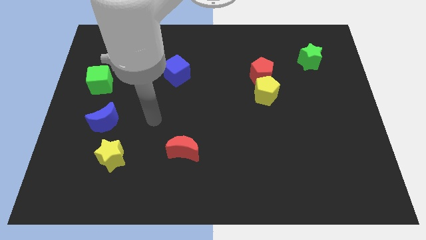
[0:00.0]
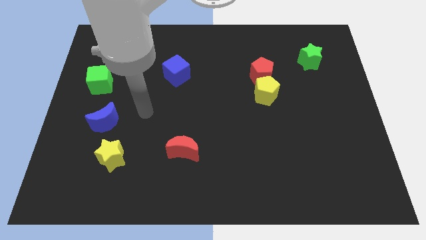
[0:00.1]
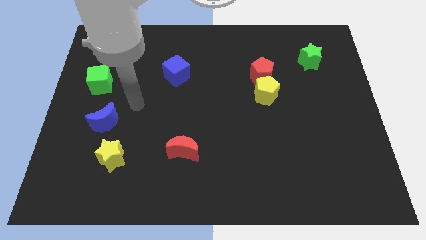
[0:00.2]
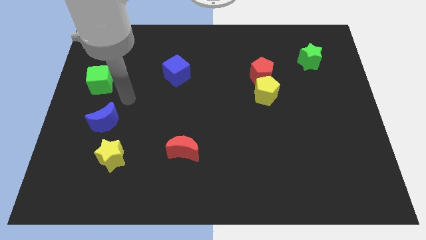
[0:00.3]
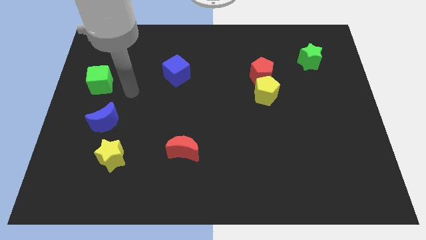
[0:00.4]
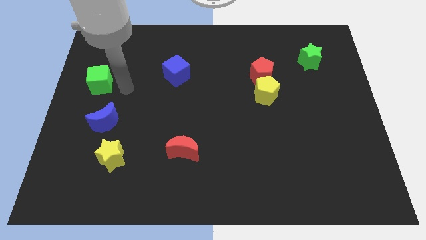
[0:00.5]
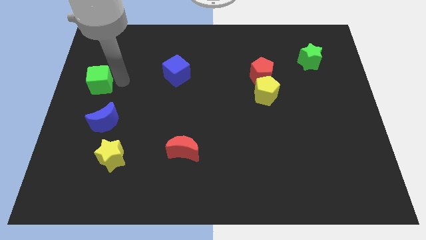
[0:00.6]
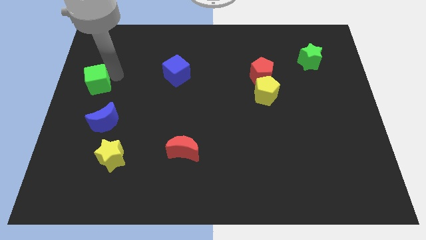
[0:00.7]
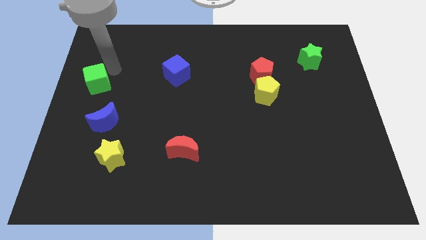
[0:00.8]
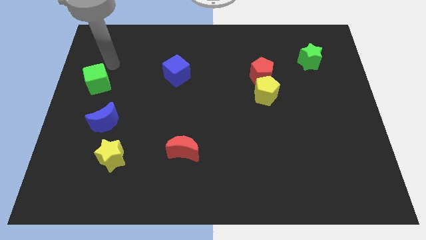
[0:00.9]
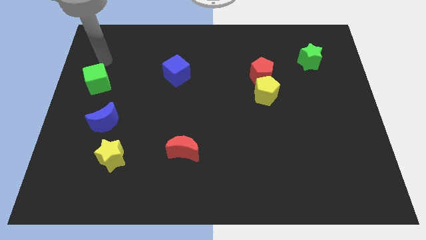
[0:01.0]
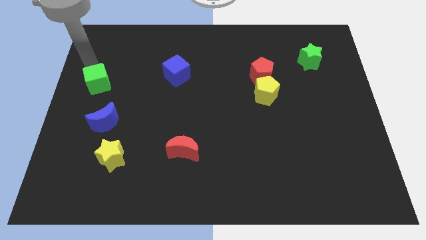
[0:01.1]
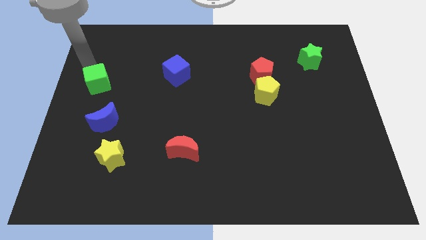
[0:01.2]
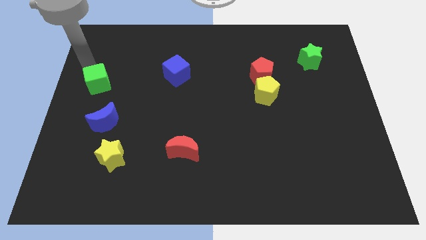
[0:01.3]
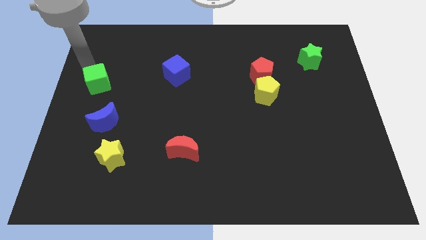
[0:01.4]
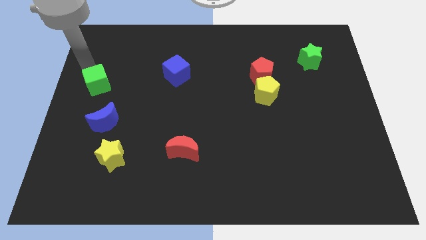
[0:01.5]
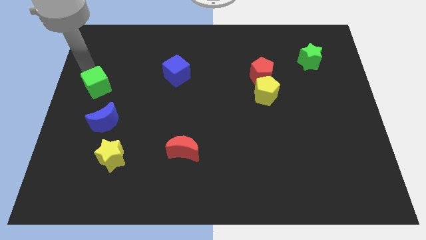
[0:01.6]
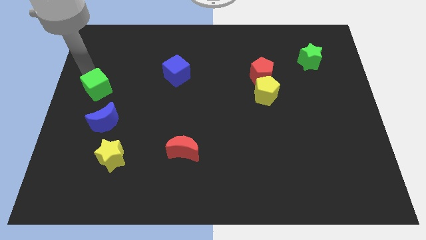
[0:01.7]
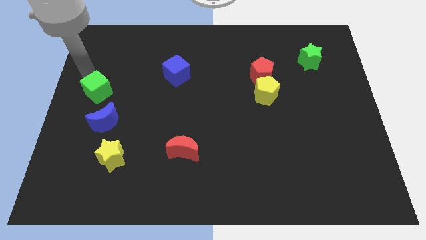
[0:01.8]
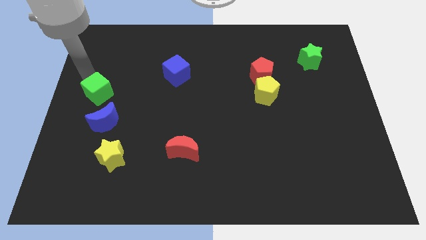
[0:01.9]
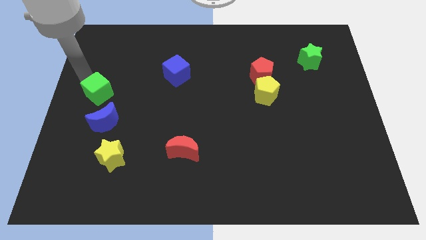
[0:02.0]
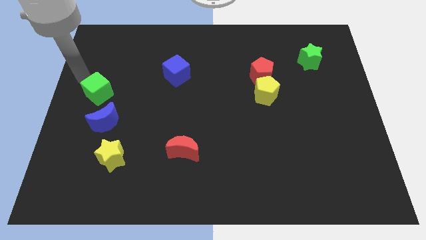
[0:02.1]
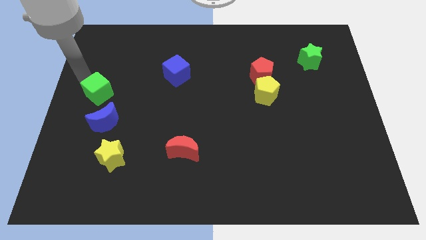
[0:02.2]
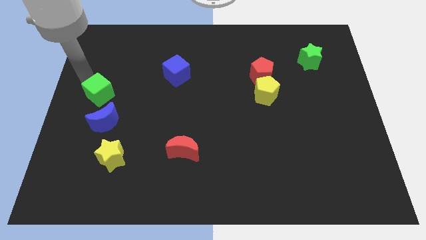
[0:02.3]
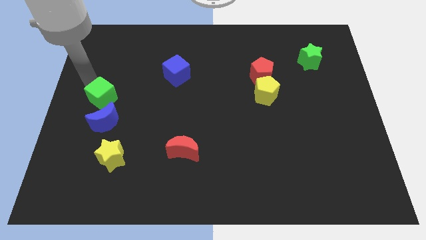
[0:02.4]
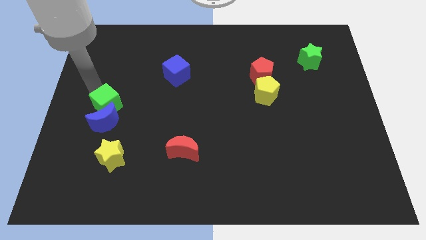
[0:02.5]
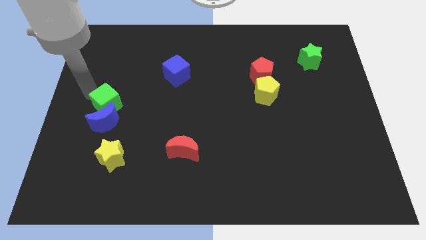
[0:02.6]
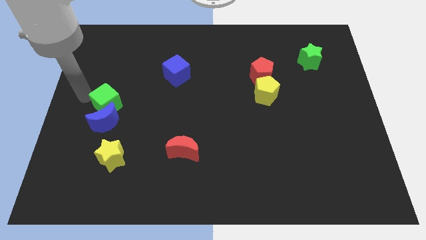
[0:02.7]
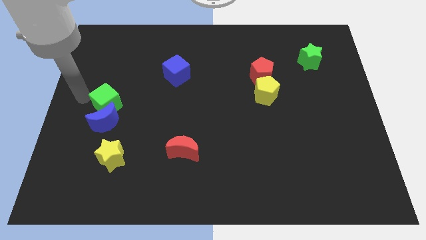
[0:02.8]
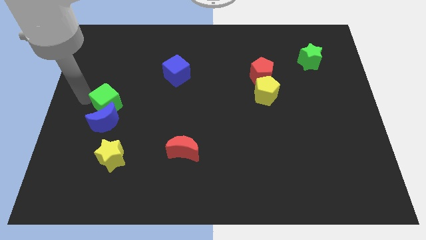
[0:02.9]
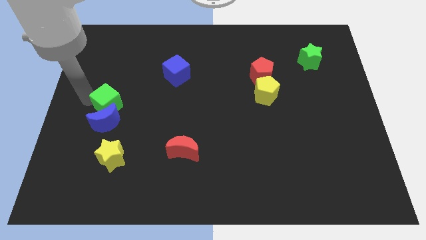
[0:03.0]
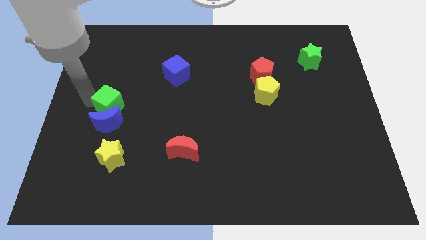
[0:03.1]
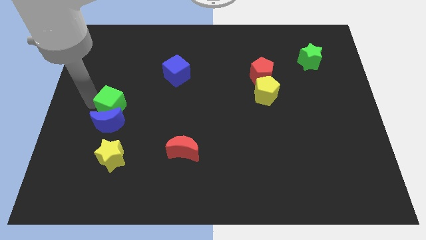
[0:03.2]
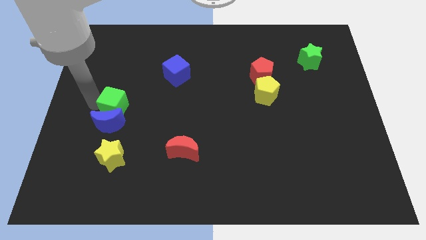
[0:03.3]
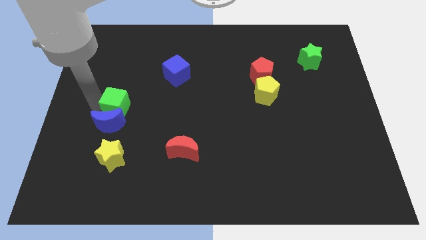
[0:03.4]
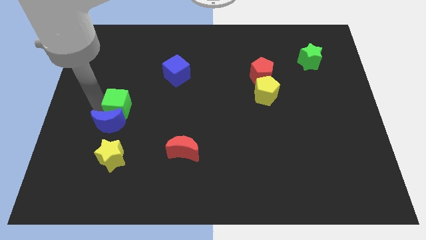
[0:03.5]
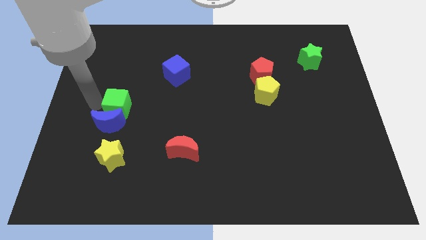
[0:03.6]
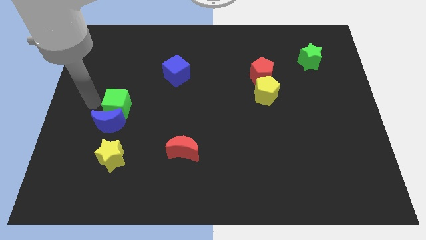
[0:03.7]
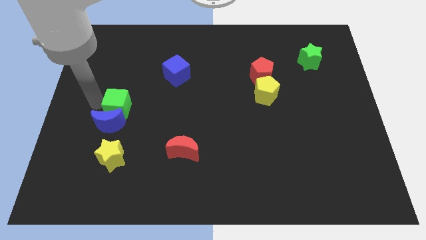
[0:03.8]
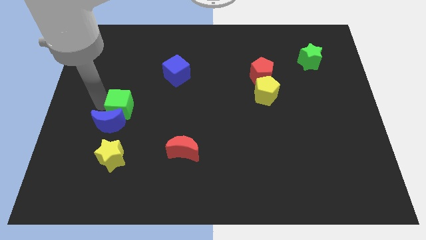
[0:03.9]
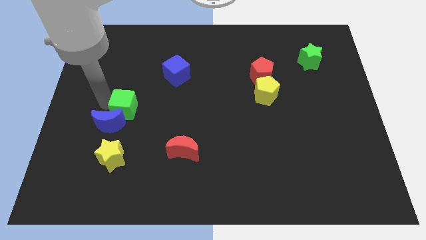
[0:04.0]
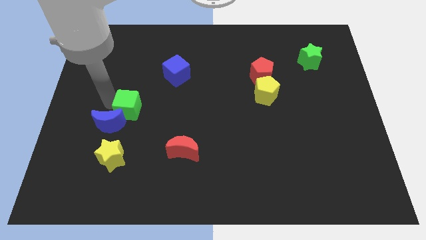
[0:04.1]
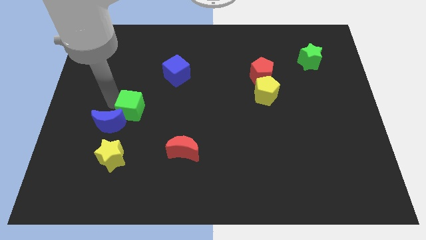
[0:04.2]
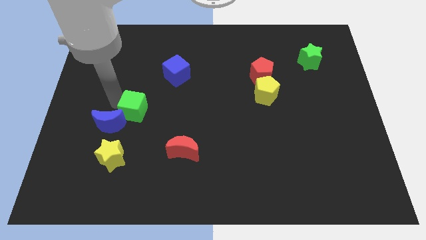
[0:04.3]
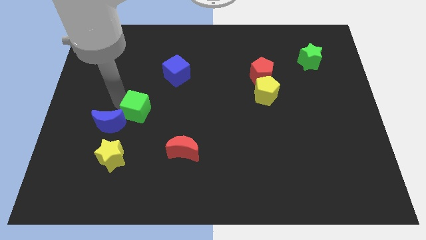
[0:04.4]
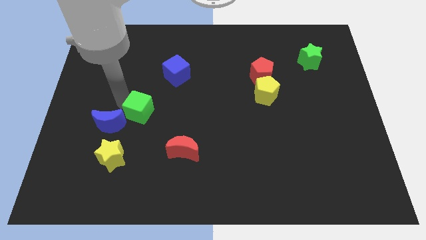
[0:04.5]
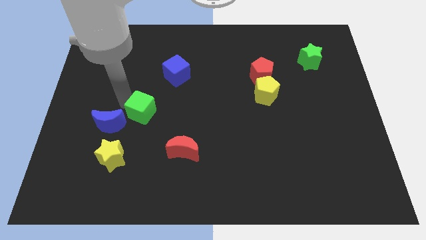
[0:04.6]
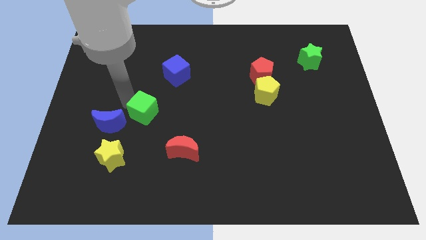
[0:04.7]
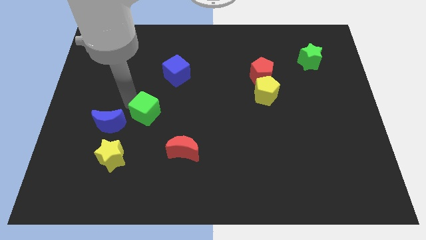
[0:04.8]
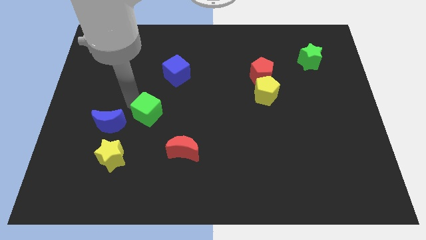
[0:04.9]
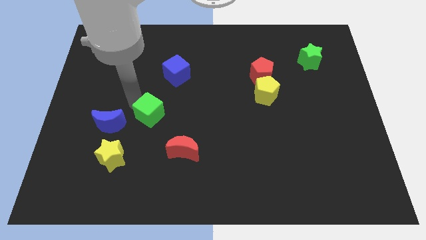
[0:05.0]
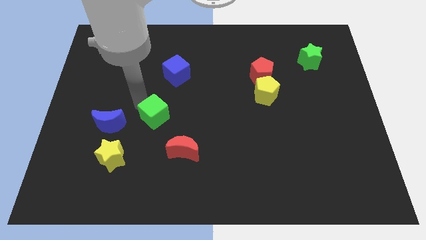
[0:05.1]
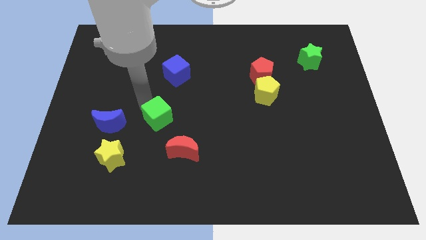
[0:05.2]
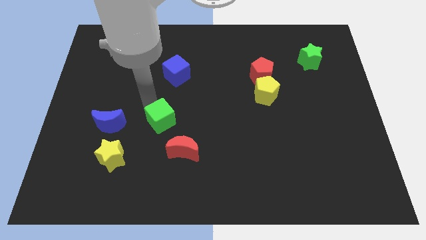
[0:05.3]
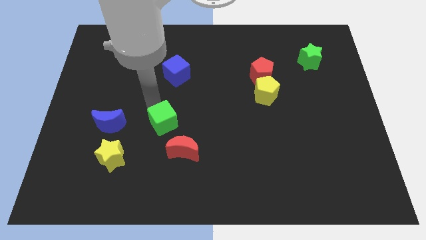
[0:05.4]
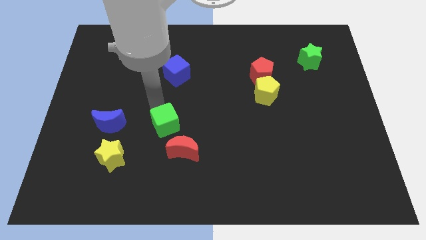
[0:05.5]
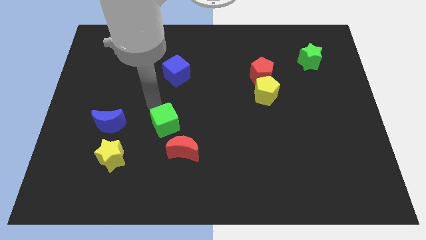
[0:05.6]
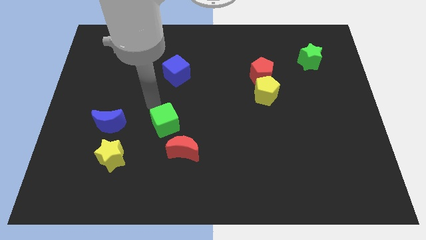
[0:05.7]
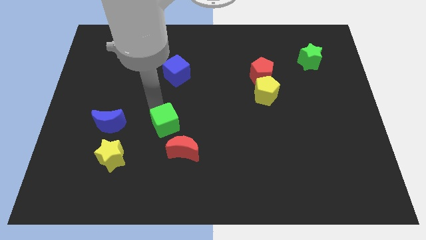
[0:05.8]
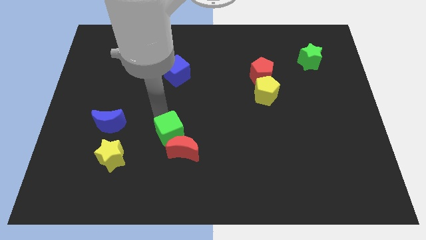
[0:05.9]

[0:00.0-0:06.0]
push the green cube close to the red moon

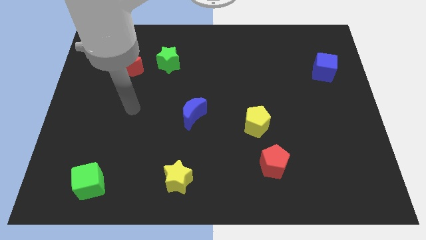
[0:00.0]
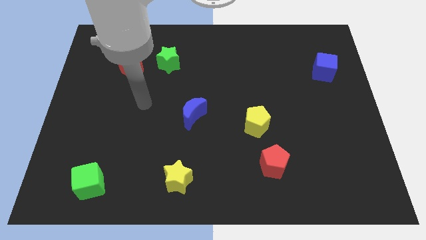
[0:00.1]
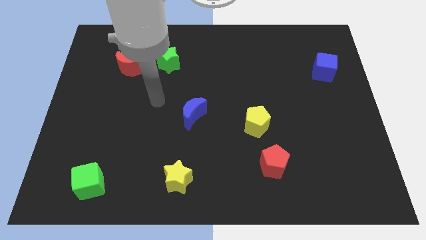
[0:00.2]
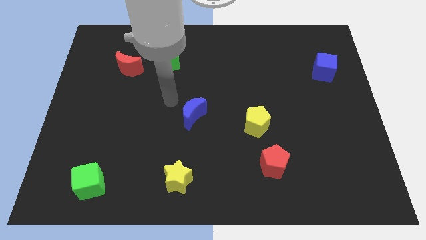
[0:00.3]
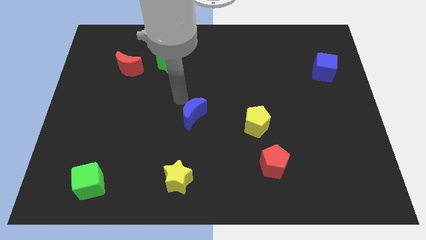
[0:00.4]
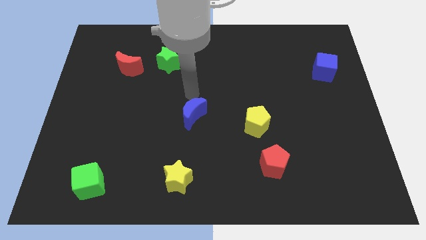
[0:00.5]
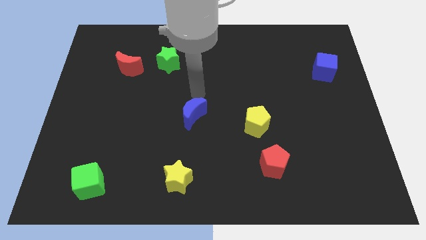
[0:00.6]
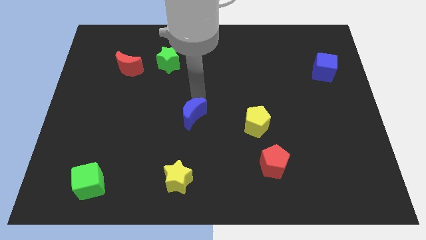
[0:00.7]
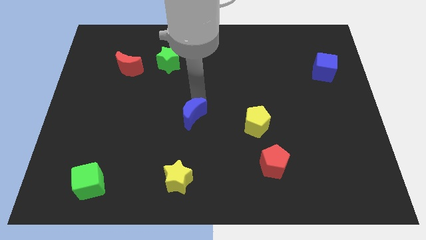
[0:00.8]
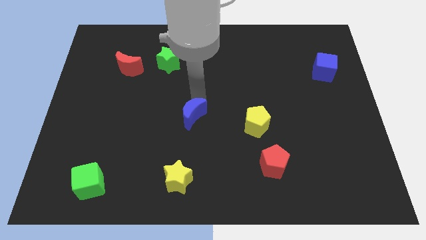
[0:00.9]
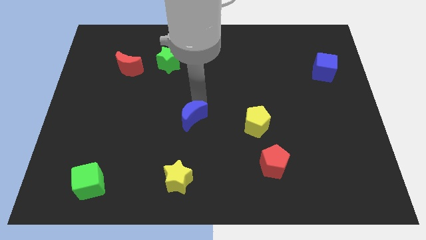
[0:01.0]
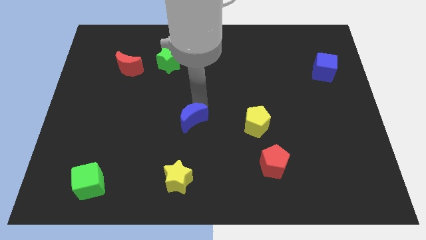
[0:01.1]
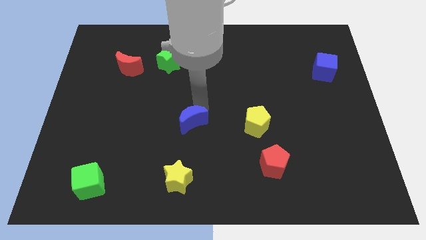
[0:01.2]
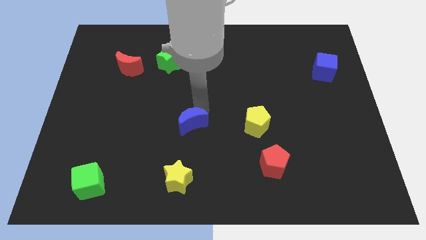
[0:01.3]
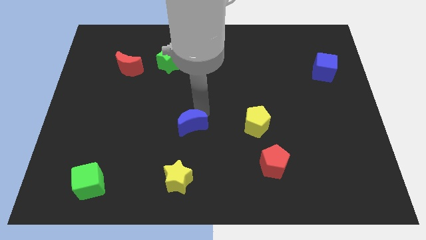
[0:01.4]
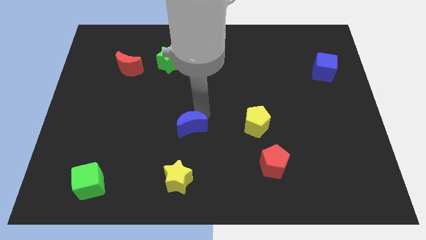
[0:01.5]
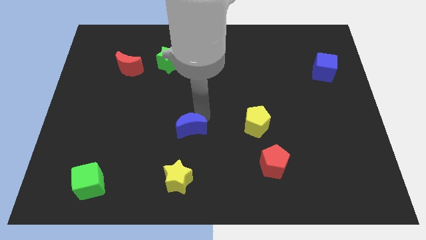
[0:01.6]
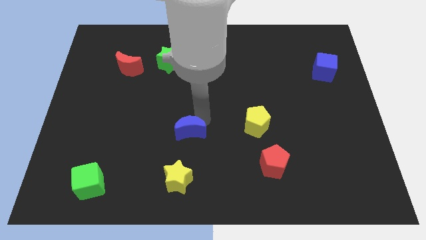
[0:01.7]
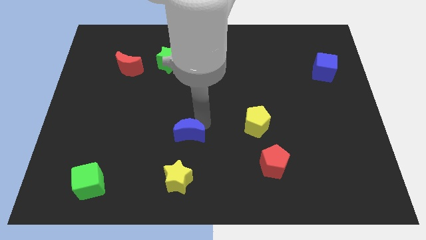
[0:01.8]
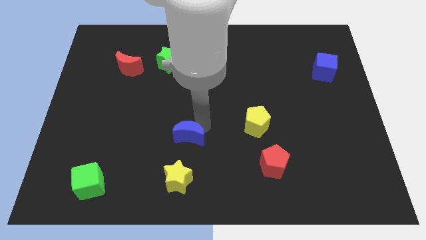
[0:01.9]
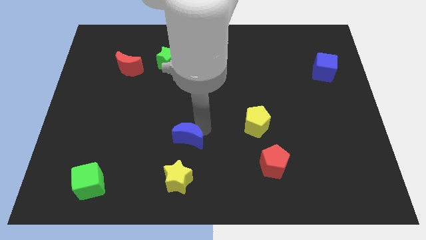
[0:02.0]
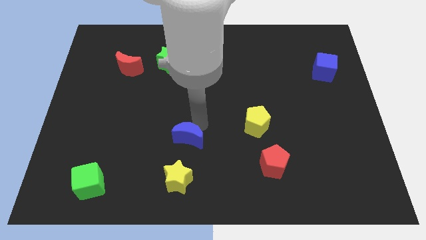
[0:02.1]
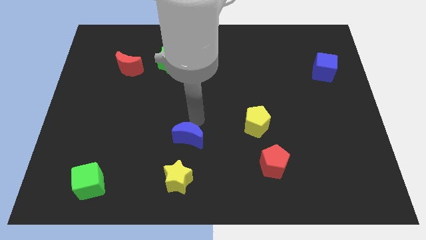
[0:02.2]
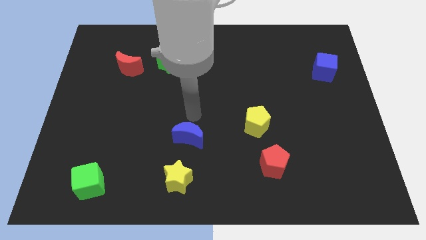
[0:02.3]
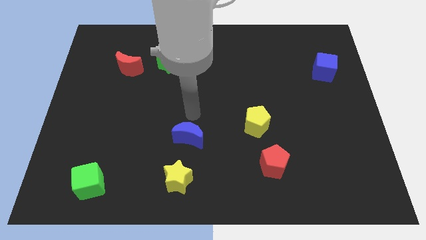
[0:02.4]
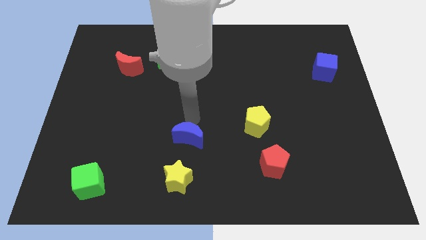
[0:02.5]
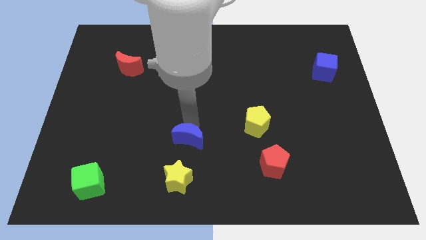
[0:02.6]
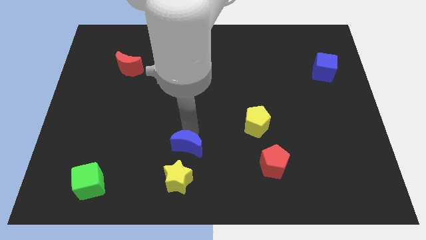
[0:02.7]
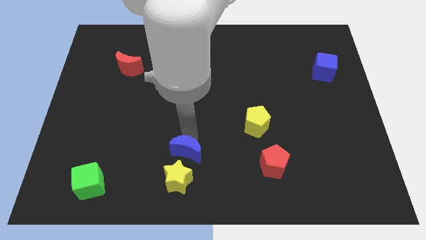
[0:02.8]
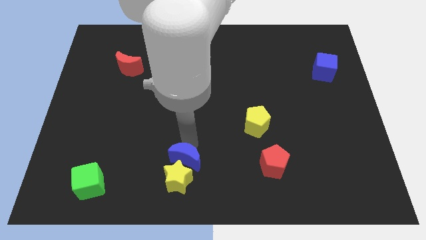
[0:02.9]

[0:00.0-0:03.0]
push the blue moon towards the yellow star
